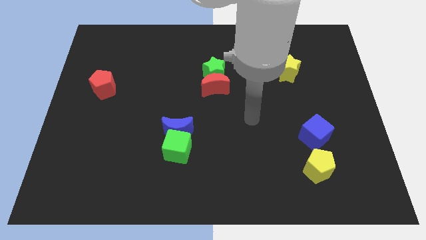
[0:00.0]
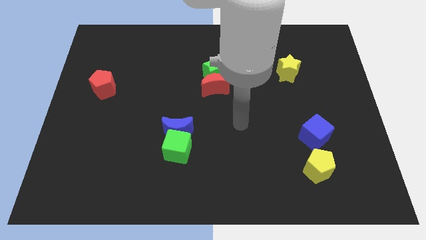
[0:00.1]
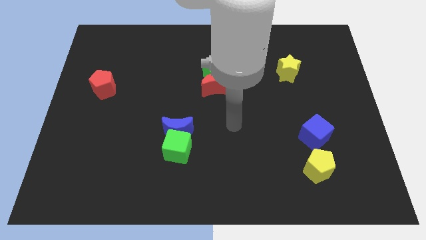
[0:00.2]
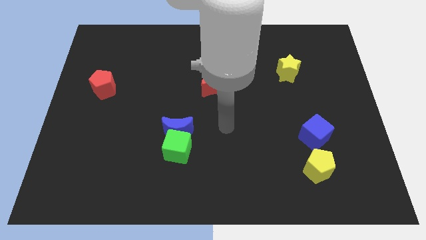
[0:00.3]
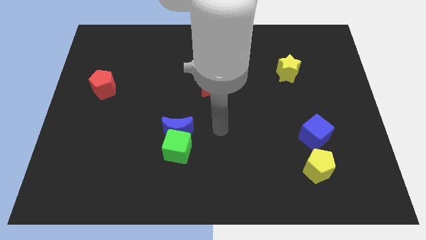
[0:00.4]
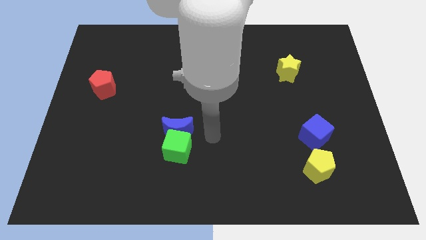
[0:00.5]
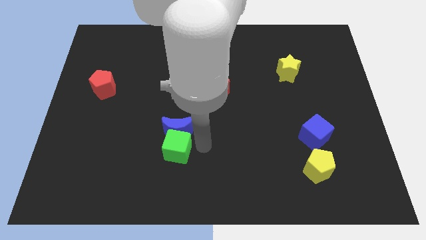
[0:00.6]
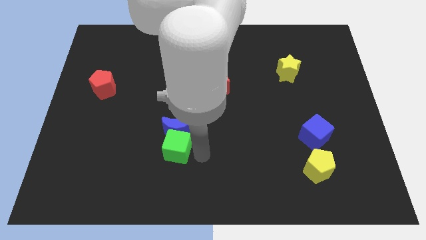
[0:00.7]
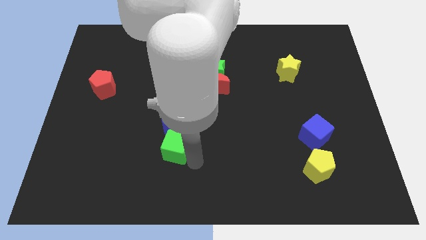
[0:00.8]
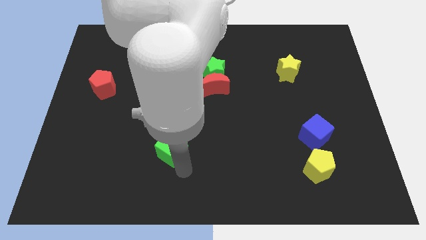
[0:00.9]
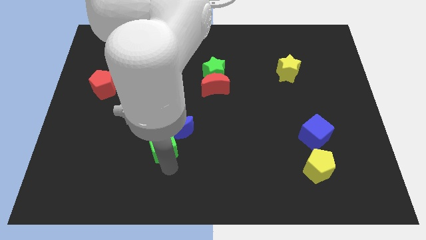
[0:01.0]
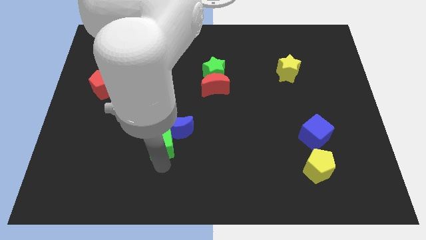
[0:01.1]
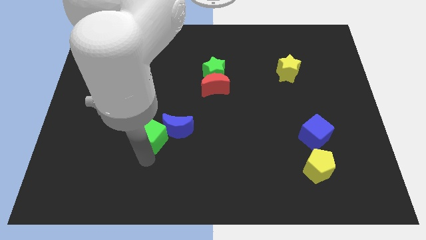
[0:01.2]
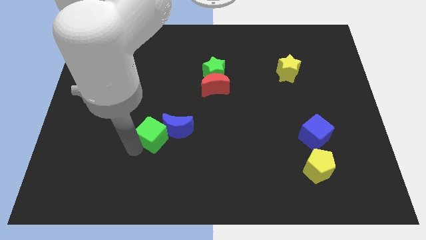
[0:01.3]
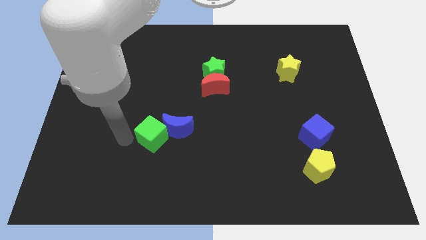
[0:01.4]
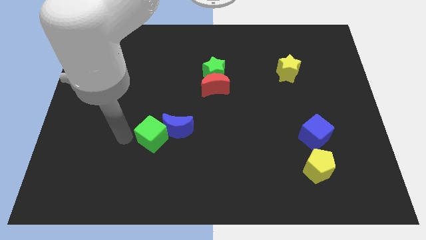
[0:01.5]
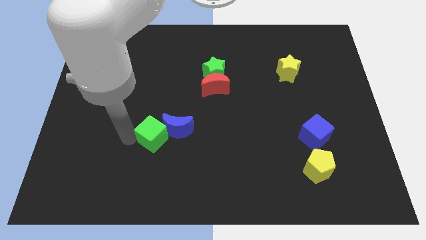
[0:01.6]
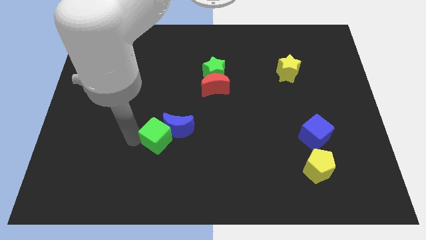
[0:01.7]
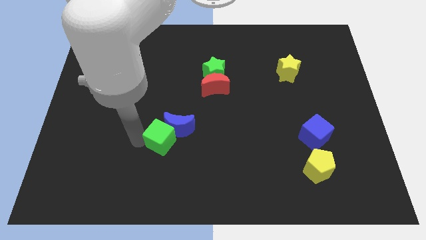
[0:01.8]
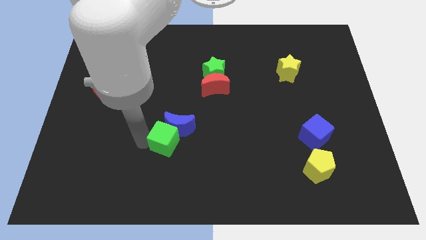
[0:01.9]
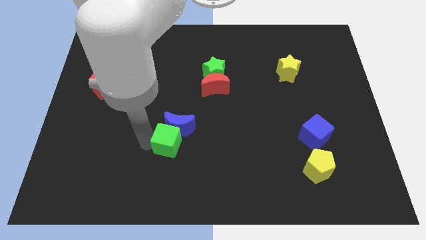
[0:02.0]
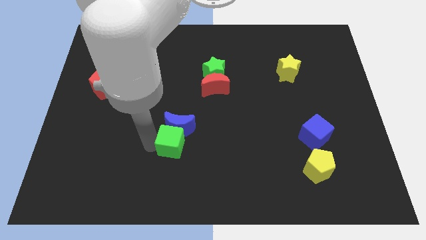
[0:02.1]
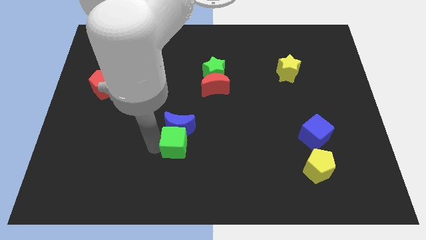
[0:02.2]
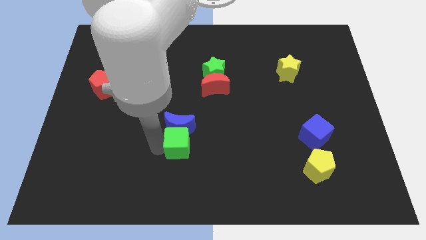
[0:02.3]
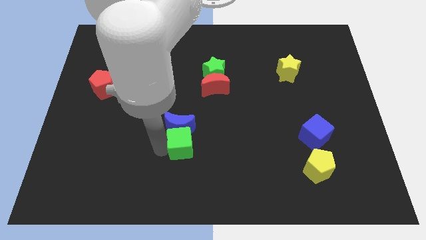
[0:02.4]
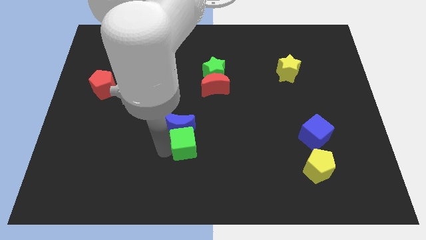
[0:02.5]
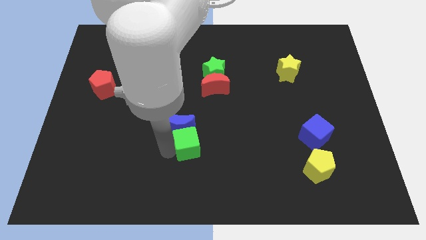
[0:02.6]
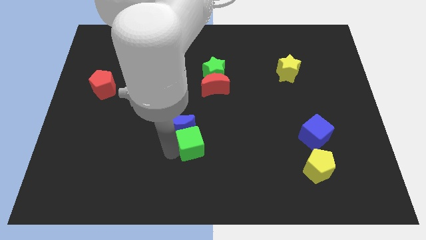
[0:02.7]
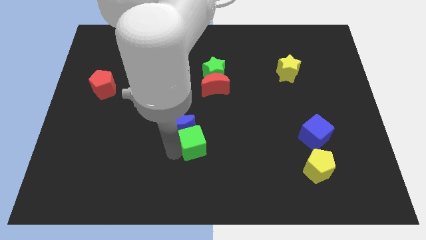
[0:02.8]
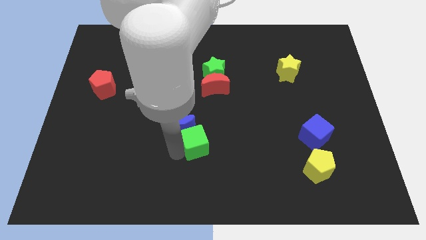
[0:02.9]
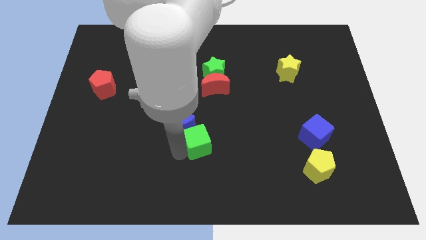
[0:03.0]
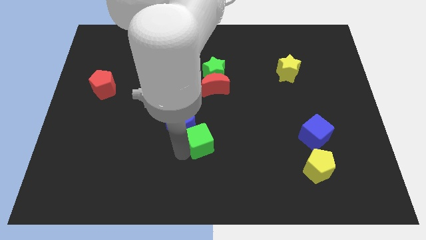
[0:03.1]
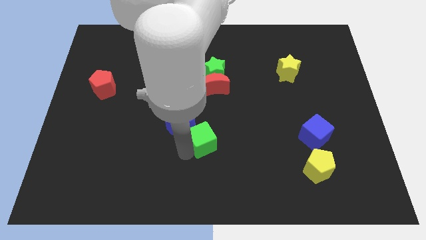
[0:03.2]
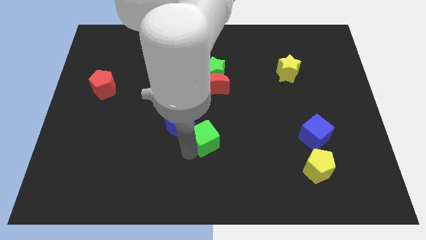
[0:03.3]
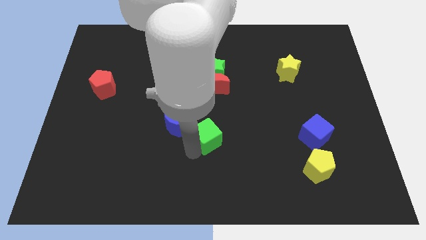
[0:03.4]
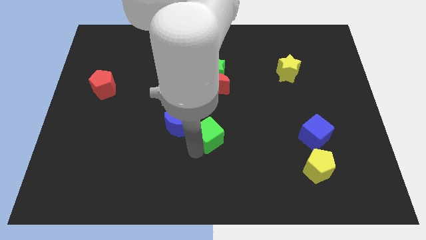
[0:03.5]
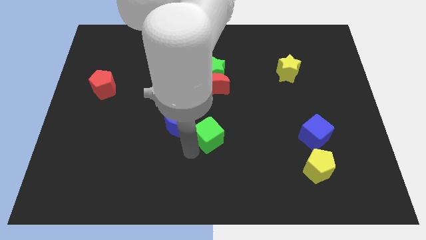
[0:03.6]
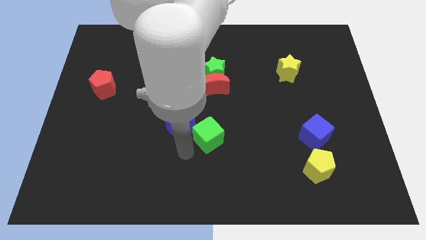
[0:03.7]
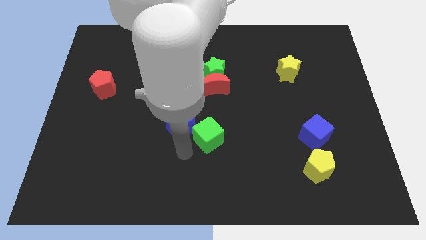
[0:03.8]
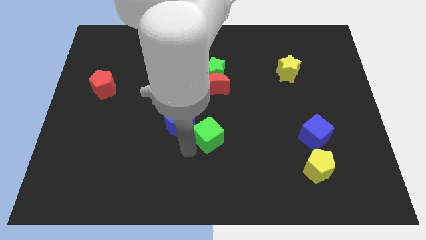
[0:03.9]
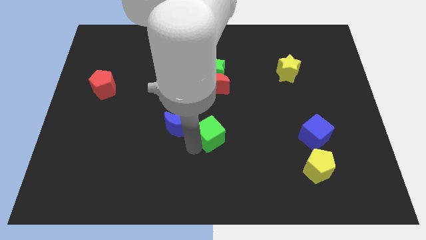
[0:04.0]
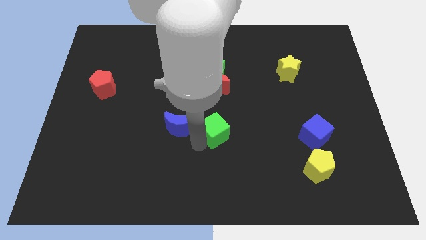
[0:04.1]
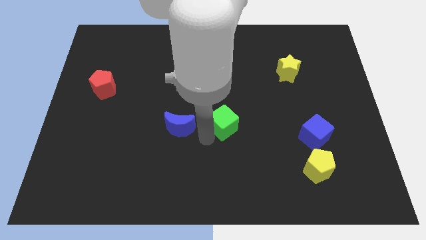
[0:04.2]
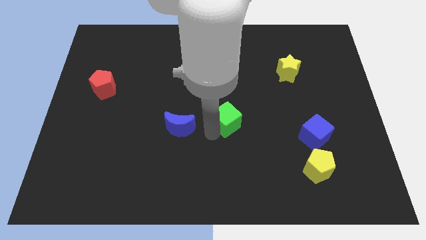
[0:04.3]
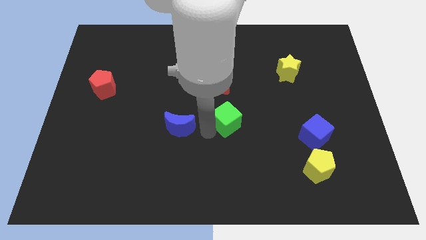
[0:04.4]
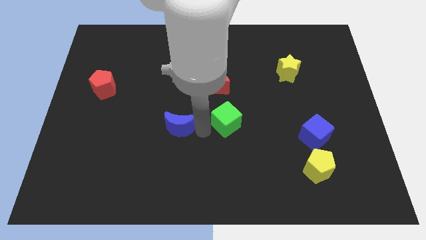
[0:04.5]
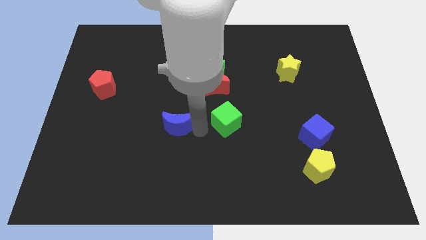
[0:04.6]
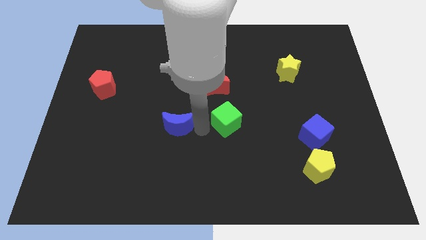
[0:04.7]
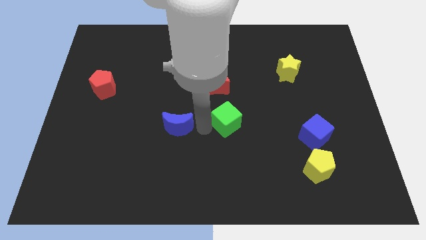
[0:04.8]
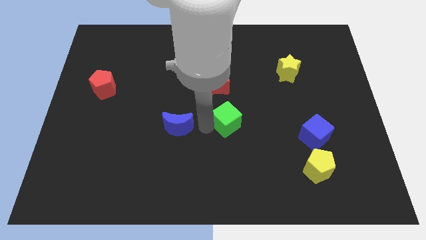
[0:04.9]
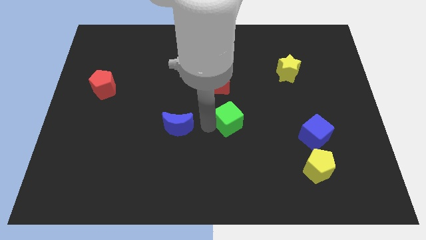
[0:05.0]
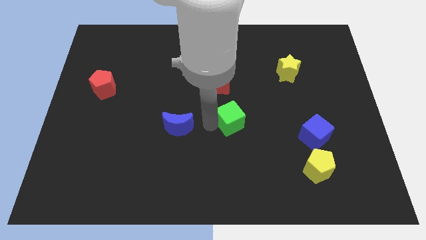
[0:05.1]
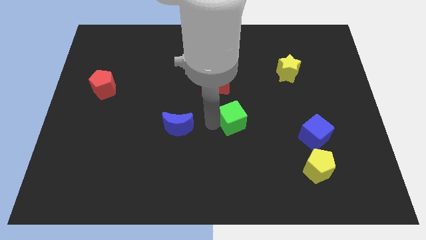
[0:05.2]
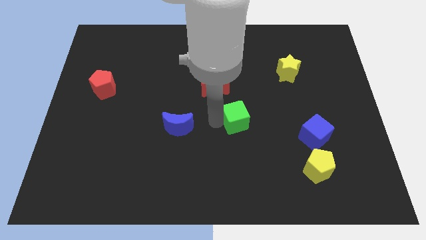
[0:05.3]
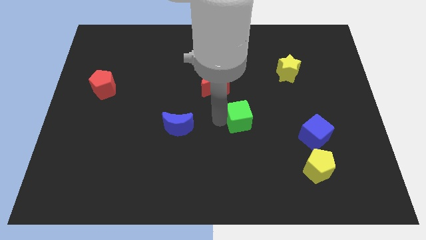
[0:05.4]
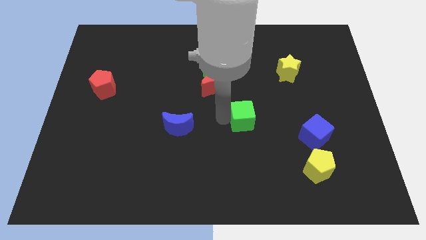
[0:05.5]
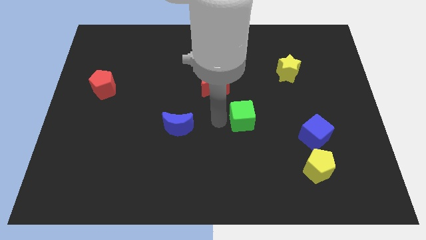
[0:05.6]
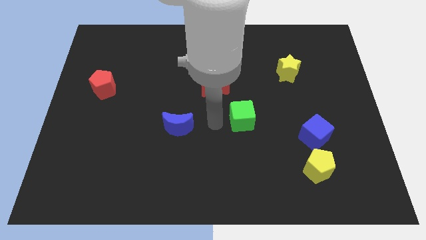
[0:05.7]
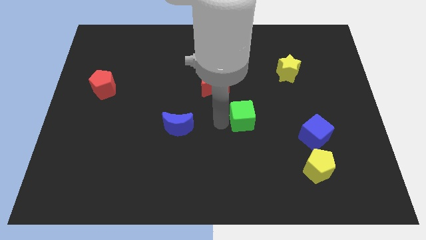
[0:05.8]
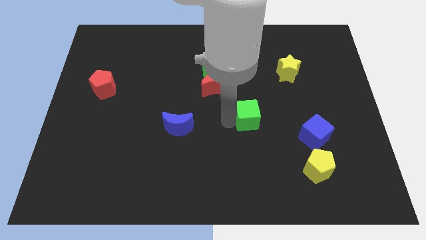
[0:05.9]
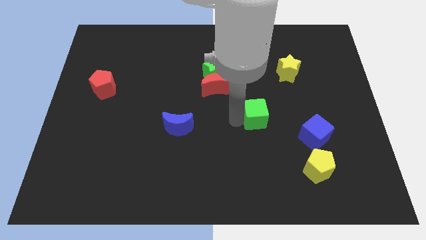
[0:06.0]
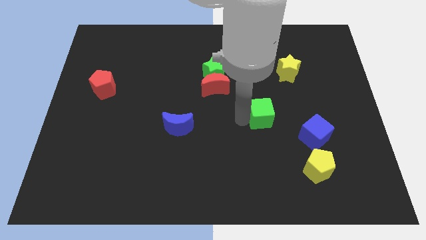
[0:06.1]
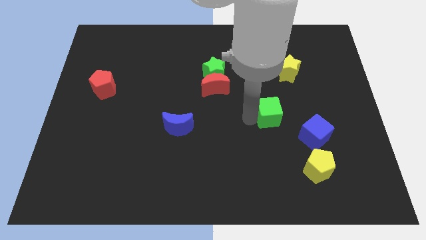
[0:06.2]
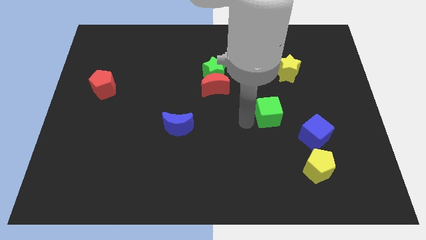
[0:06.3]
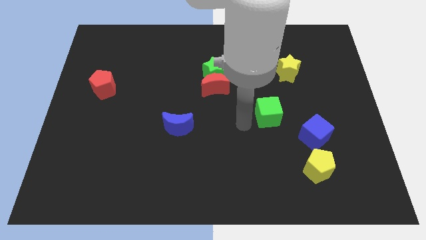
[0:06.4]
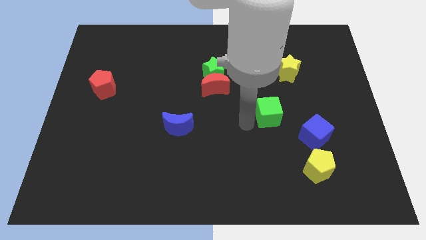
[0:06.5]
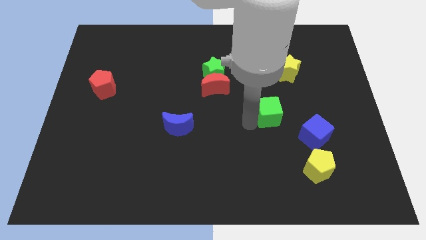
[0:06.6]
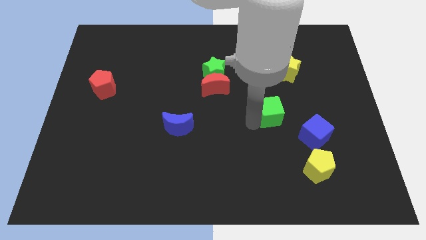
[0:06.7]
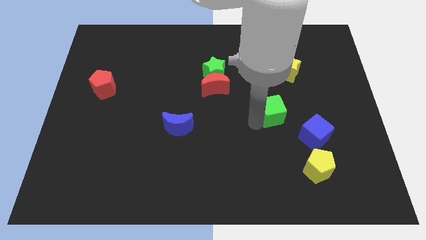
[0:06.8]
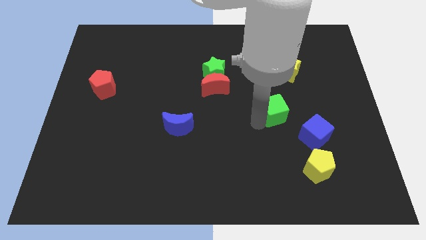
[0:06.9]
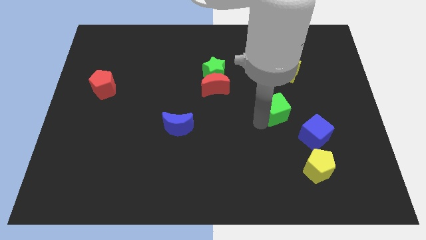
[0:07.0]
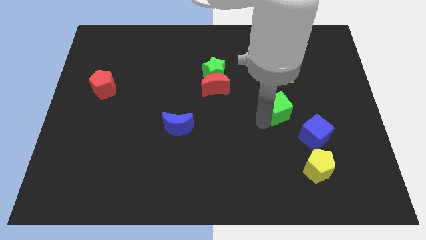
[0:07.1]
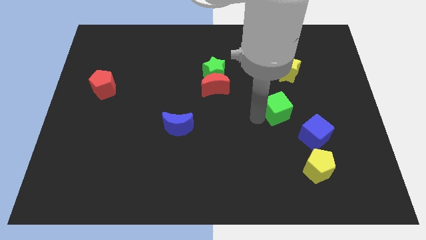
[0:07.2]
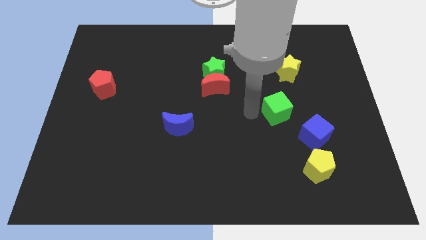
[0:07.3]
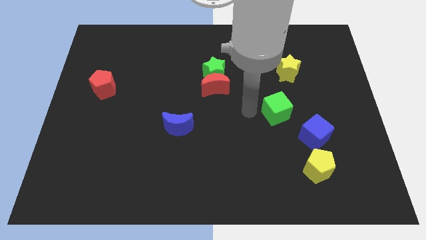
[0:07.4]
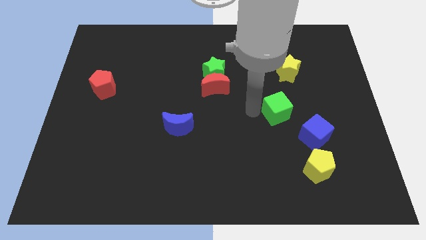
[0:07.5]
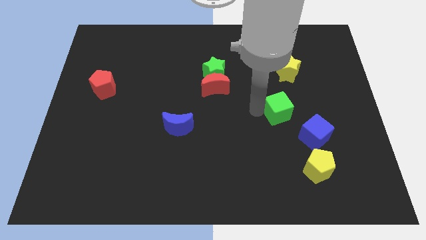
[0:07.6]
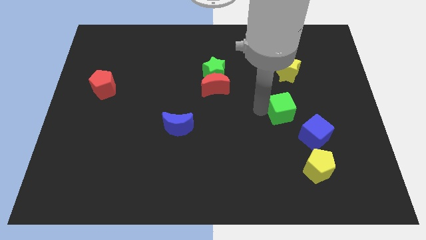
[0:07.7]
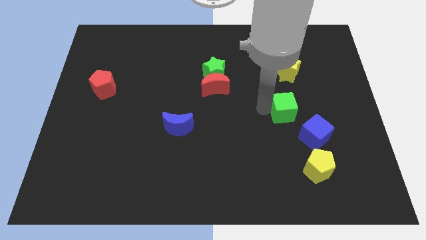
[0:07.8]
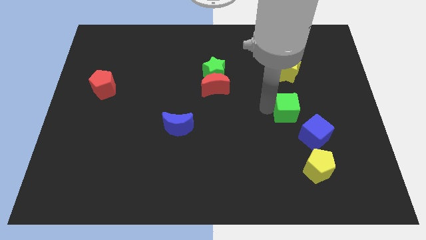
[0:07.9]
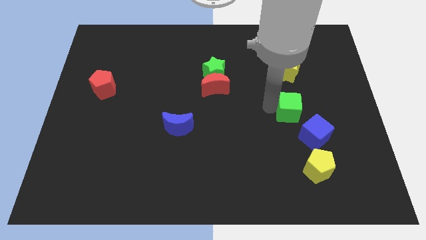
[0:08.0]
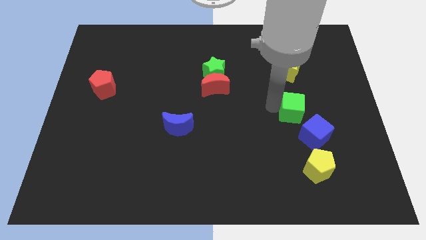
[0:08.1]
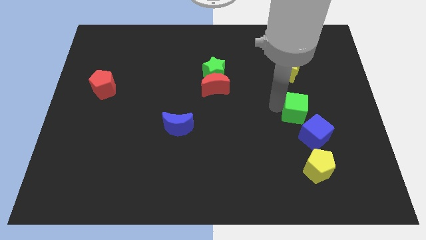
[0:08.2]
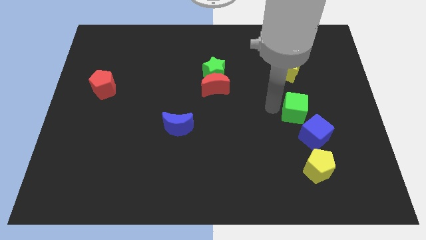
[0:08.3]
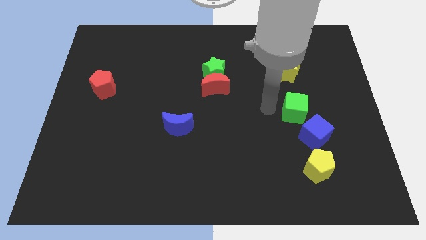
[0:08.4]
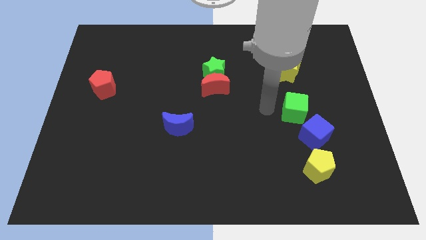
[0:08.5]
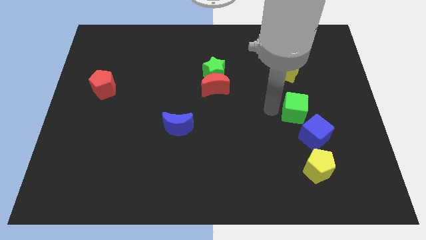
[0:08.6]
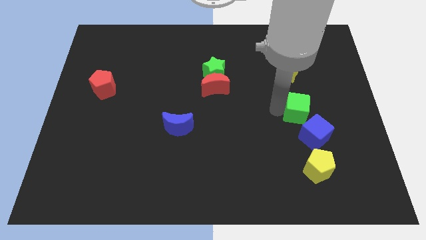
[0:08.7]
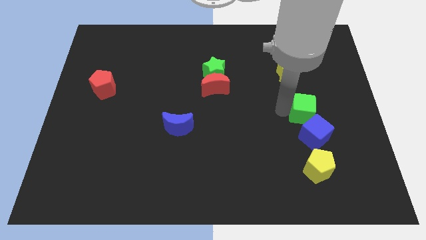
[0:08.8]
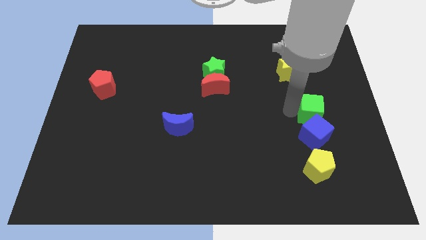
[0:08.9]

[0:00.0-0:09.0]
slide the green cube diagonally up and to the right of the blue cube
